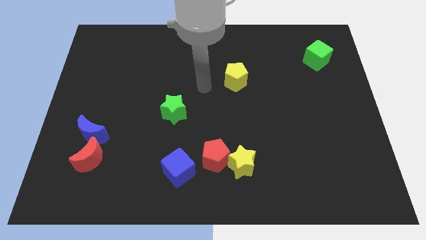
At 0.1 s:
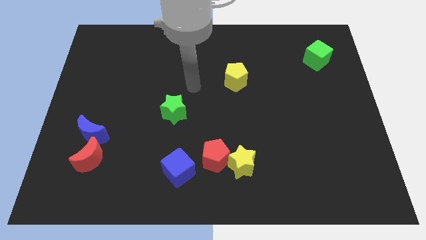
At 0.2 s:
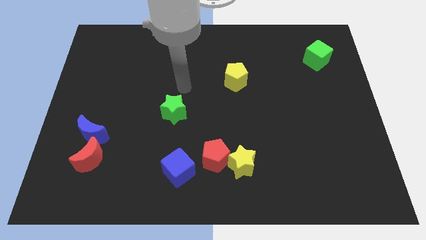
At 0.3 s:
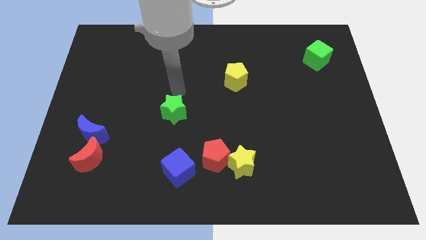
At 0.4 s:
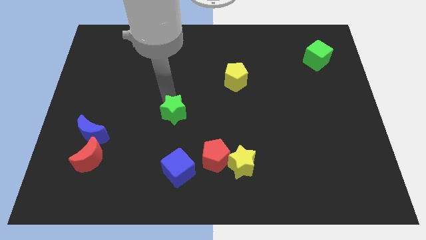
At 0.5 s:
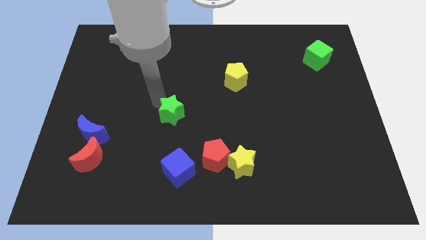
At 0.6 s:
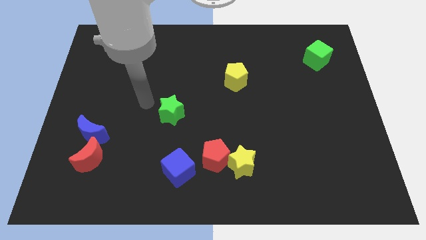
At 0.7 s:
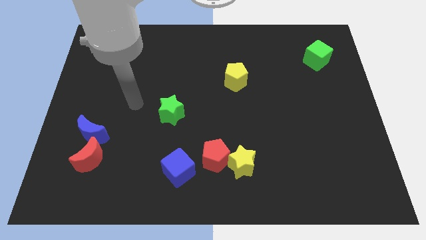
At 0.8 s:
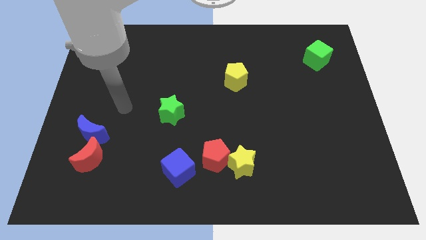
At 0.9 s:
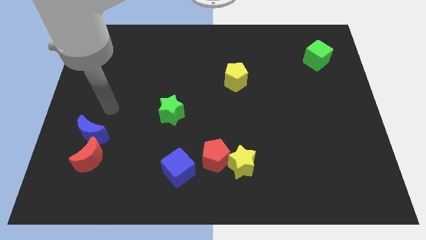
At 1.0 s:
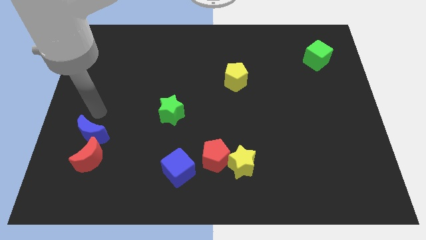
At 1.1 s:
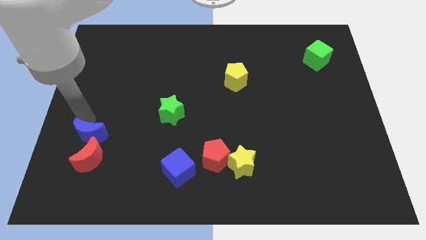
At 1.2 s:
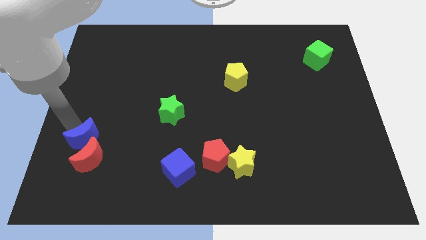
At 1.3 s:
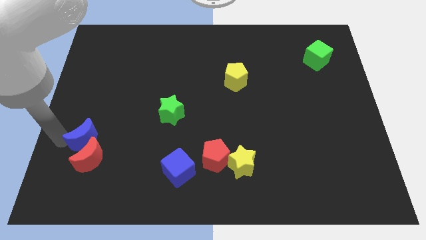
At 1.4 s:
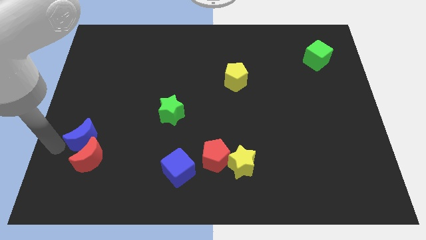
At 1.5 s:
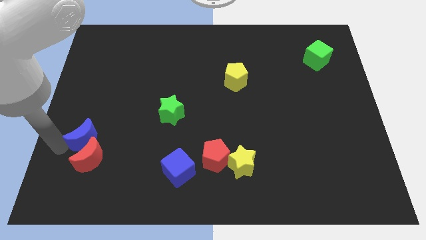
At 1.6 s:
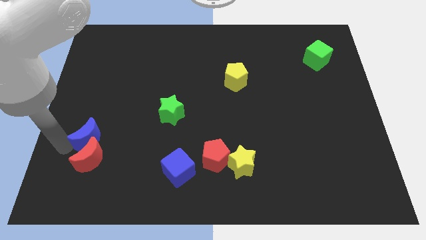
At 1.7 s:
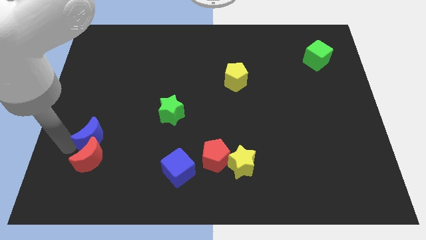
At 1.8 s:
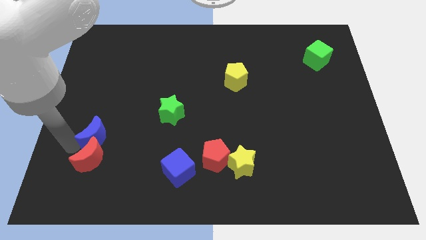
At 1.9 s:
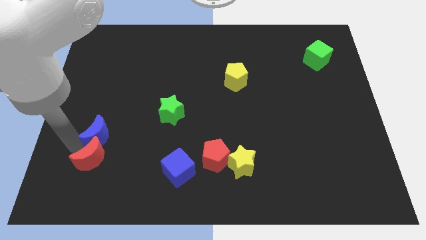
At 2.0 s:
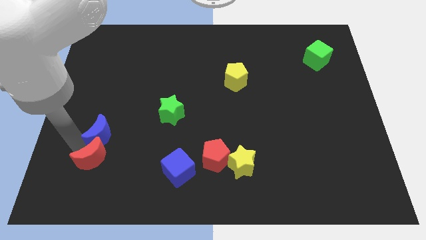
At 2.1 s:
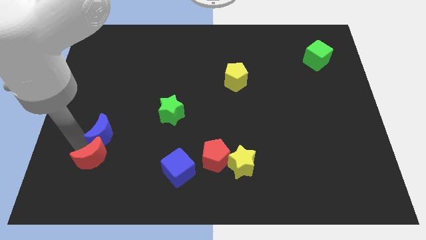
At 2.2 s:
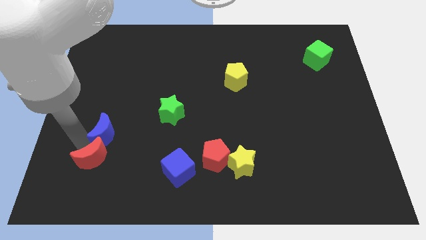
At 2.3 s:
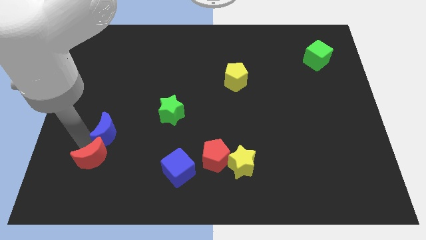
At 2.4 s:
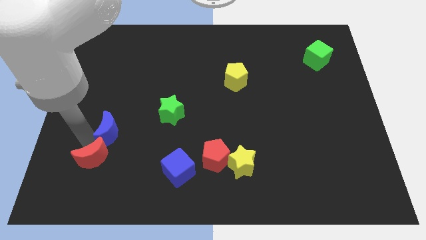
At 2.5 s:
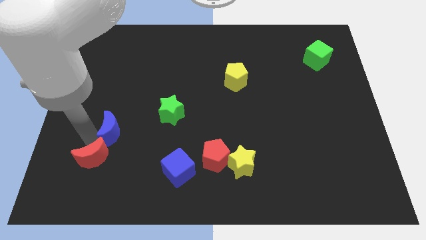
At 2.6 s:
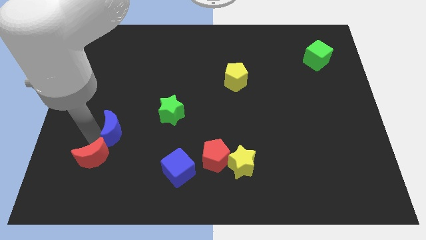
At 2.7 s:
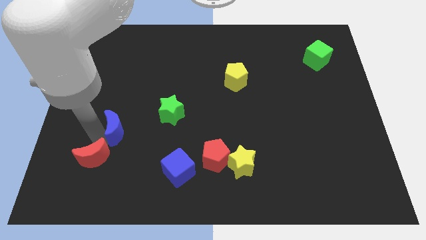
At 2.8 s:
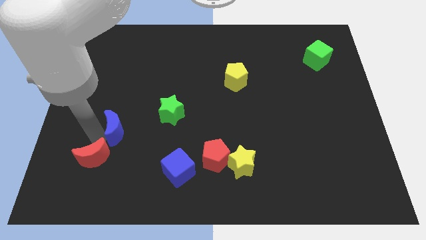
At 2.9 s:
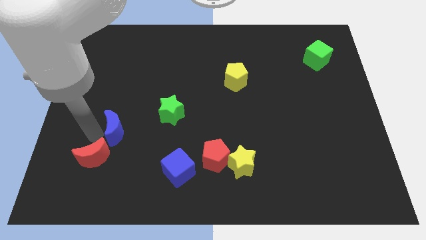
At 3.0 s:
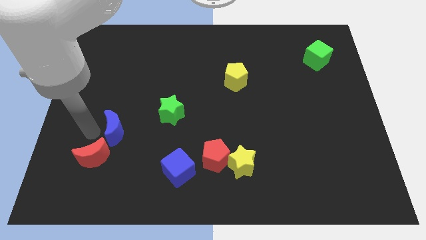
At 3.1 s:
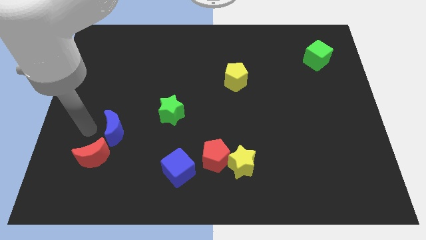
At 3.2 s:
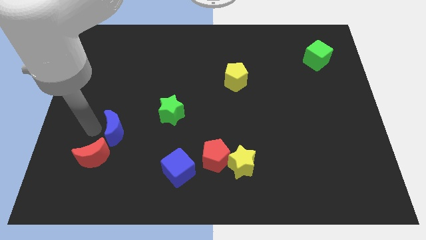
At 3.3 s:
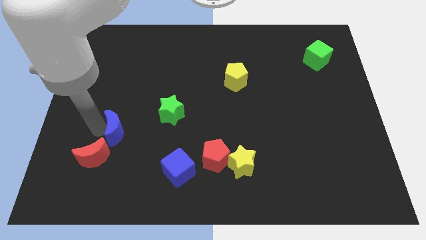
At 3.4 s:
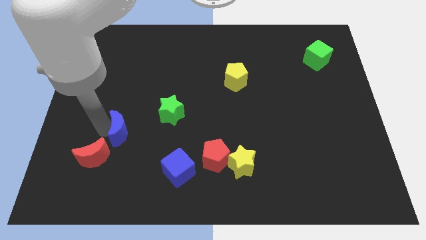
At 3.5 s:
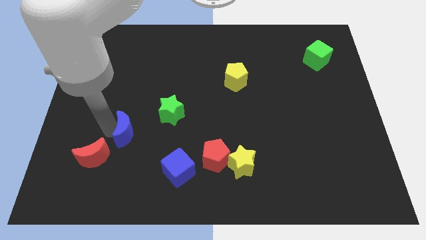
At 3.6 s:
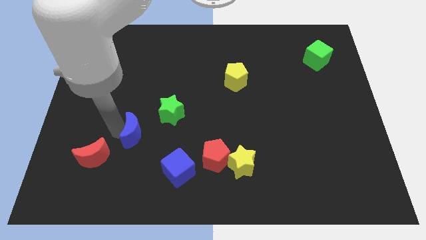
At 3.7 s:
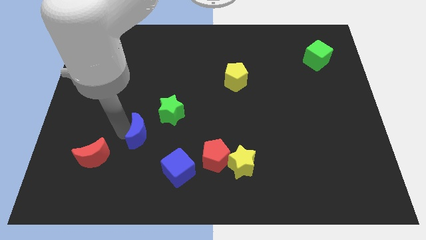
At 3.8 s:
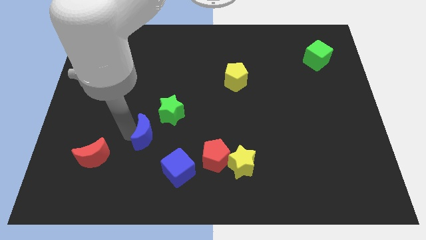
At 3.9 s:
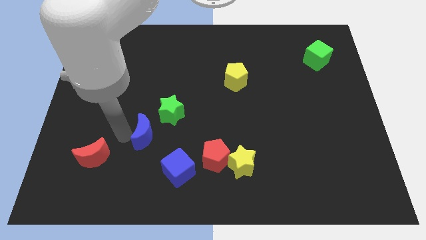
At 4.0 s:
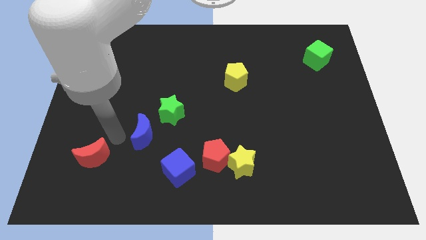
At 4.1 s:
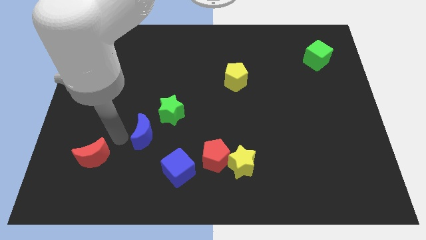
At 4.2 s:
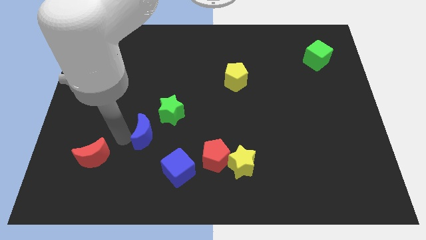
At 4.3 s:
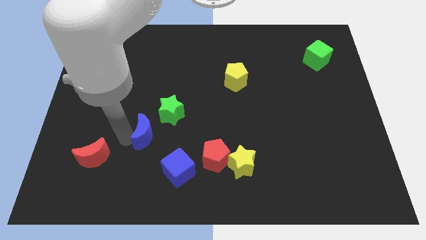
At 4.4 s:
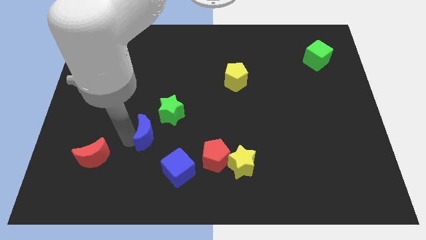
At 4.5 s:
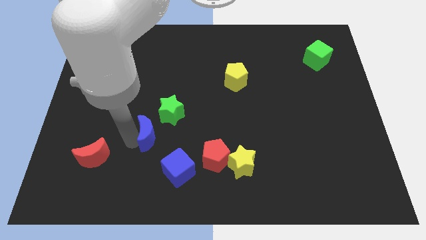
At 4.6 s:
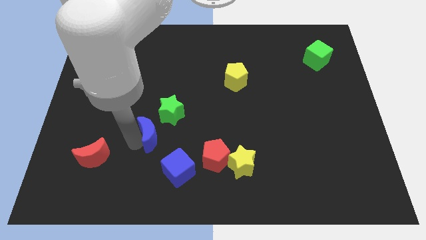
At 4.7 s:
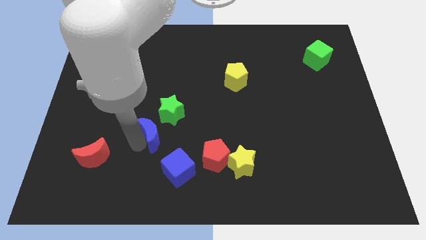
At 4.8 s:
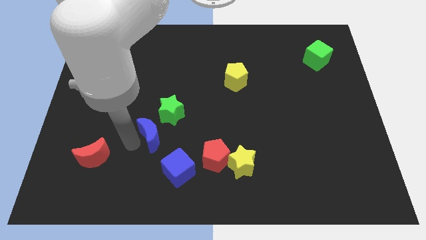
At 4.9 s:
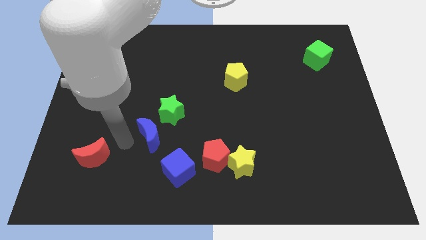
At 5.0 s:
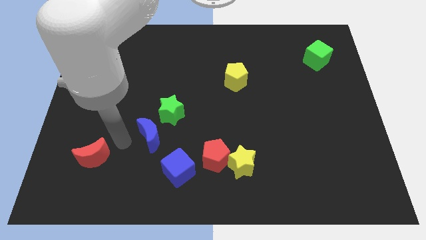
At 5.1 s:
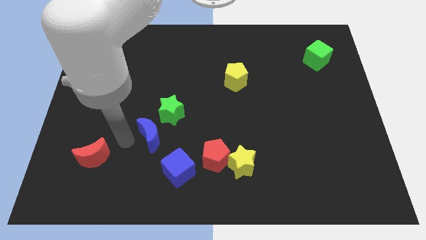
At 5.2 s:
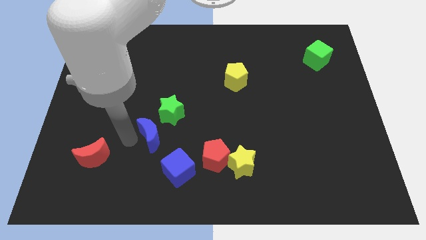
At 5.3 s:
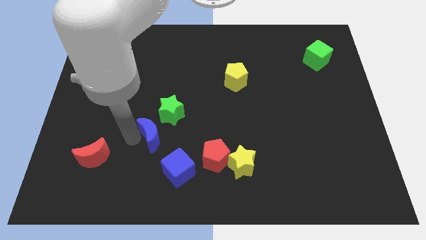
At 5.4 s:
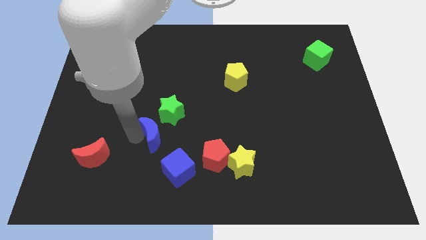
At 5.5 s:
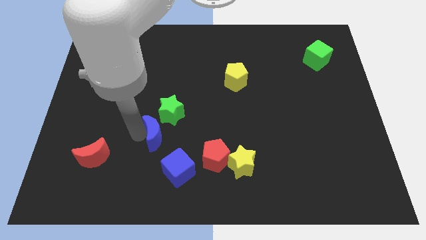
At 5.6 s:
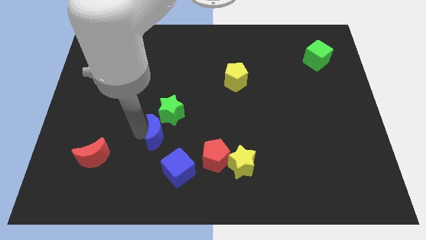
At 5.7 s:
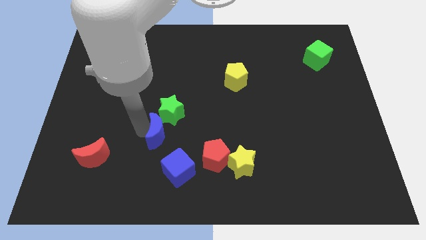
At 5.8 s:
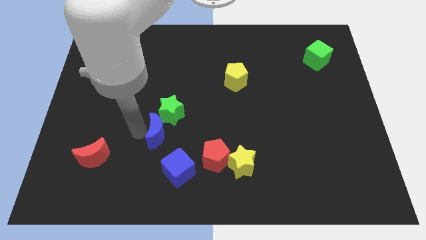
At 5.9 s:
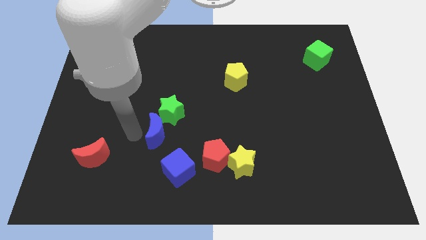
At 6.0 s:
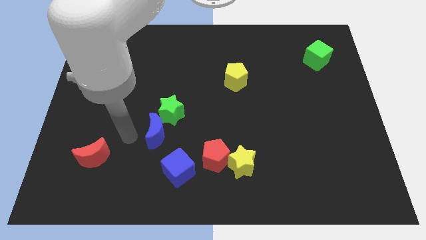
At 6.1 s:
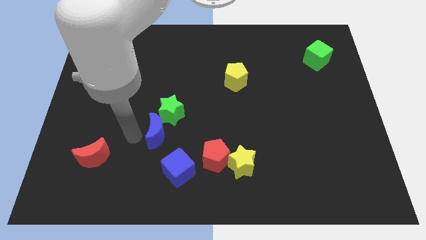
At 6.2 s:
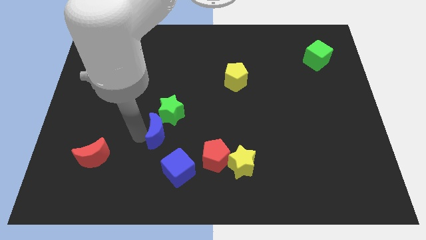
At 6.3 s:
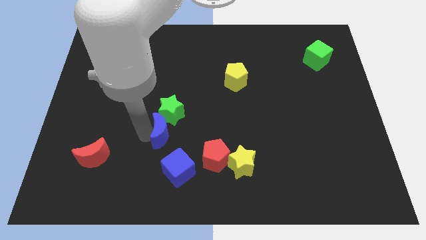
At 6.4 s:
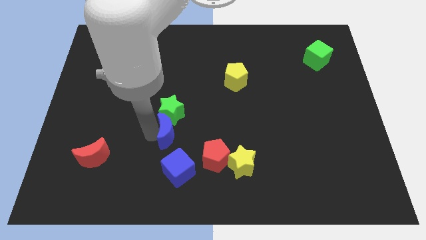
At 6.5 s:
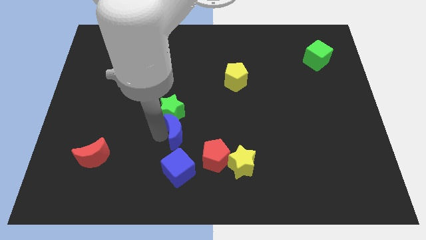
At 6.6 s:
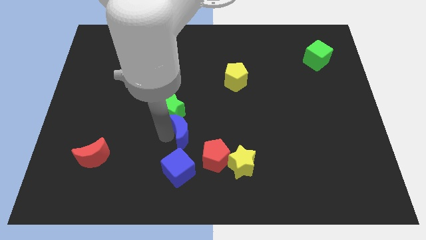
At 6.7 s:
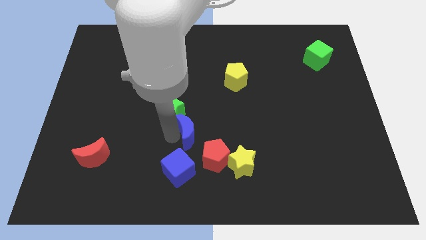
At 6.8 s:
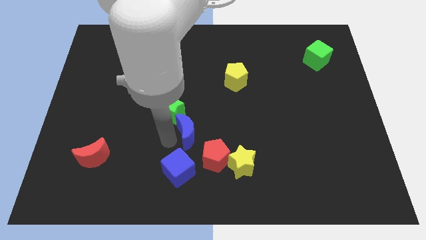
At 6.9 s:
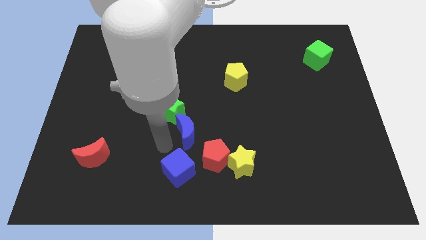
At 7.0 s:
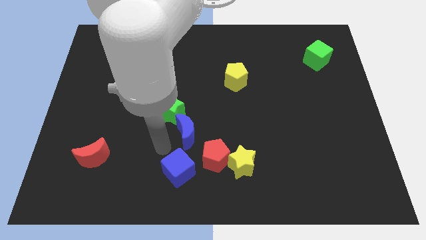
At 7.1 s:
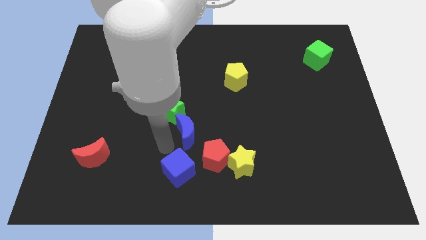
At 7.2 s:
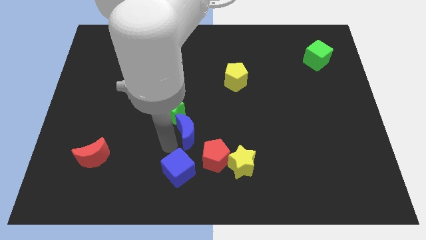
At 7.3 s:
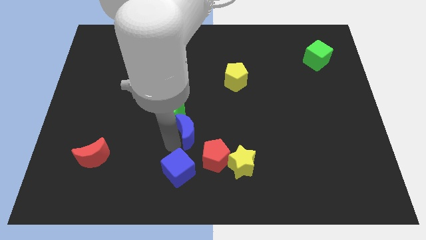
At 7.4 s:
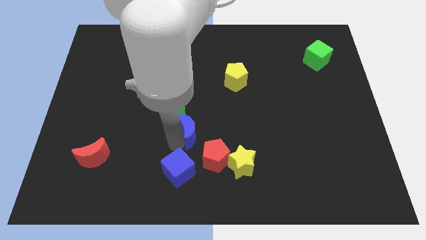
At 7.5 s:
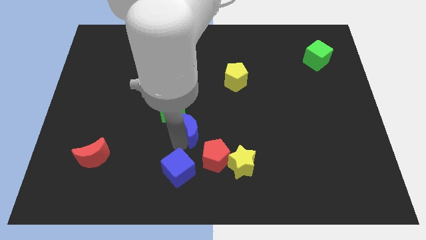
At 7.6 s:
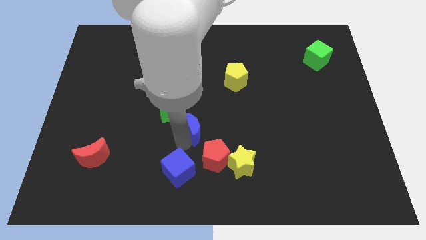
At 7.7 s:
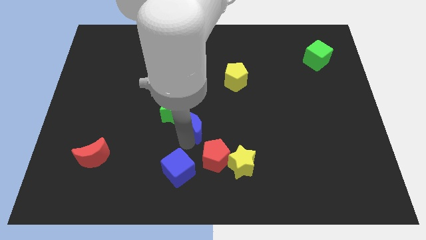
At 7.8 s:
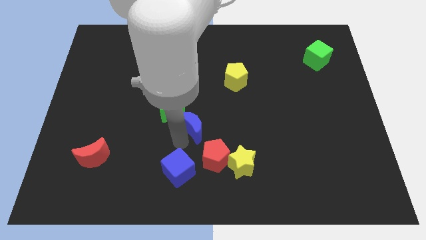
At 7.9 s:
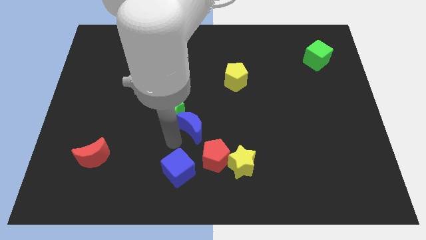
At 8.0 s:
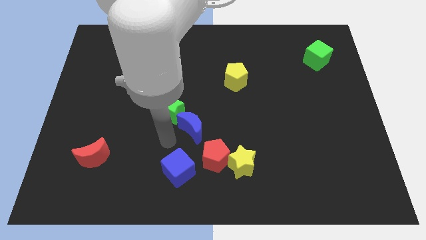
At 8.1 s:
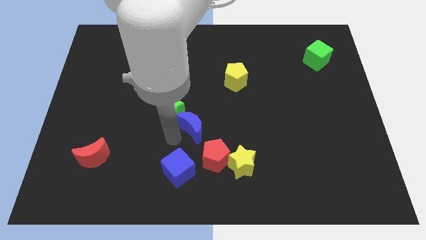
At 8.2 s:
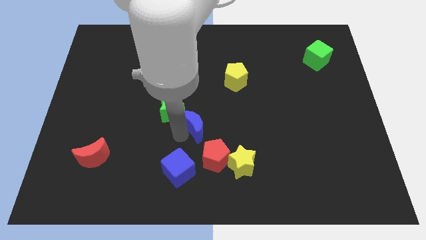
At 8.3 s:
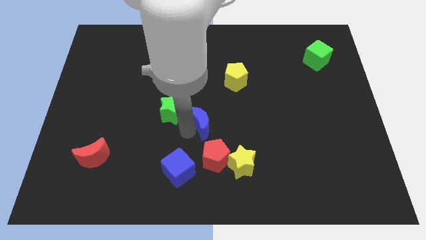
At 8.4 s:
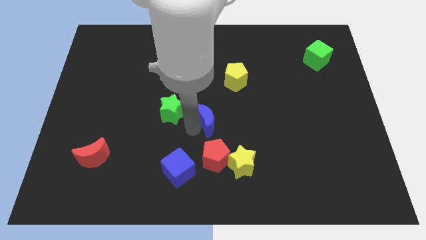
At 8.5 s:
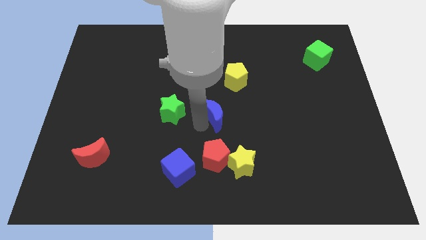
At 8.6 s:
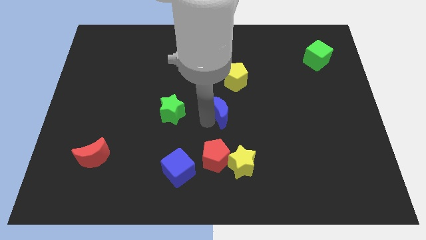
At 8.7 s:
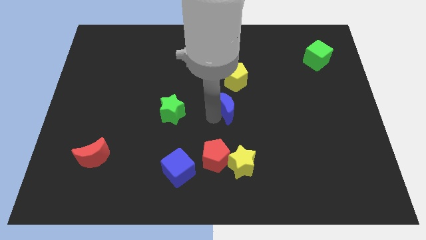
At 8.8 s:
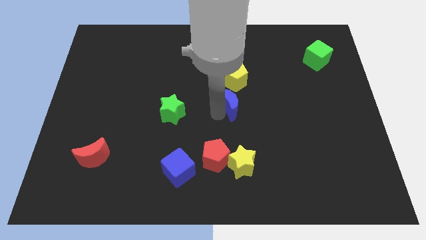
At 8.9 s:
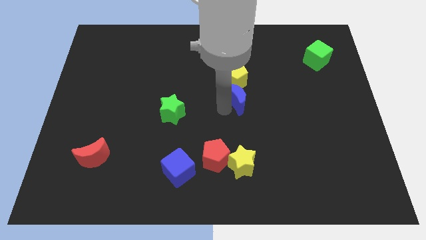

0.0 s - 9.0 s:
move the blue moon to the bottom right of the yellow pentagon
